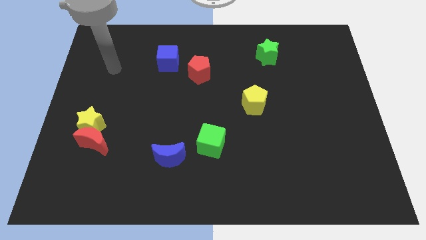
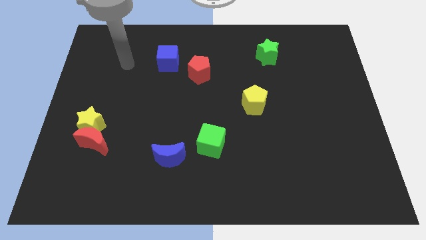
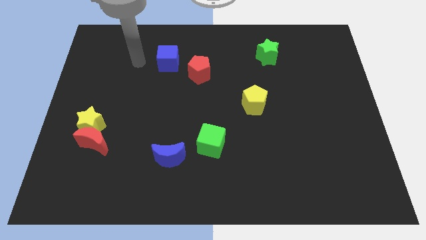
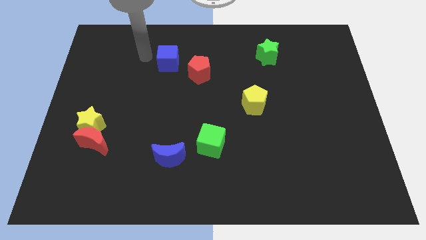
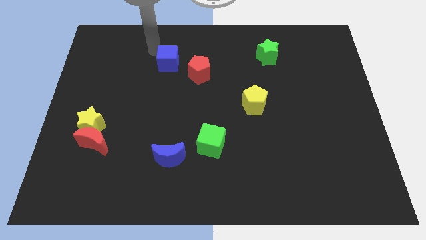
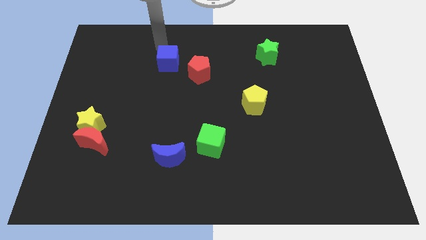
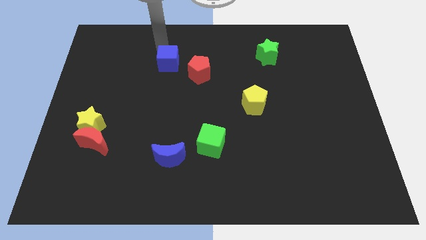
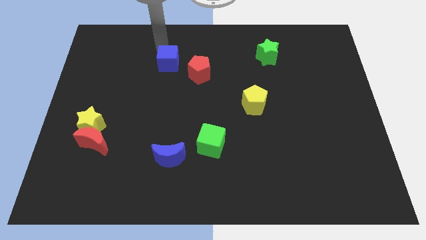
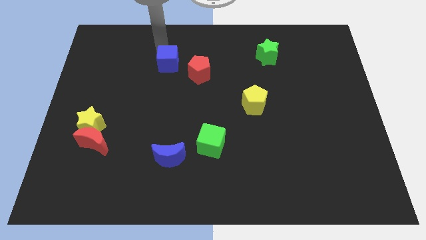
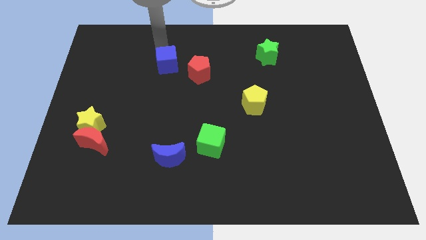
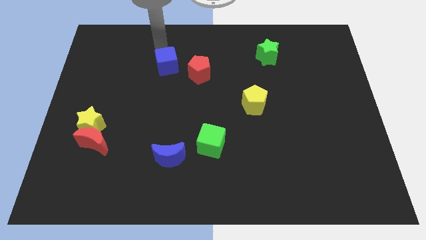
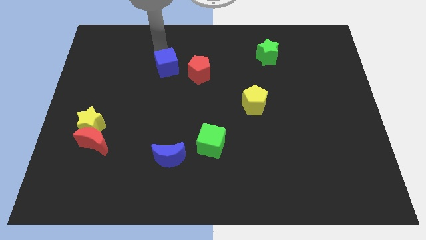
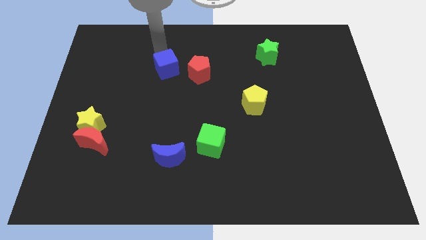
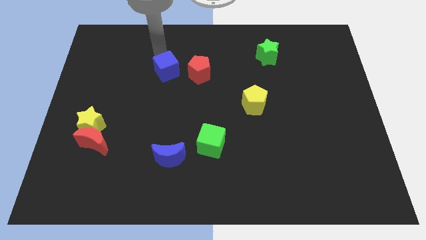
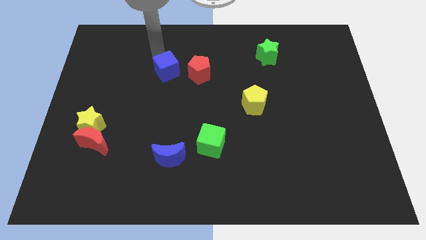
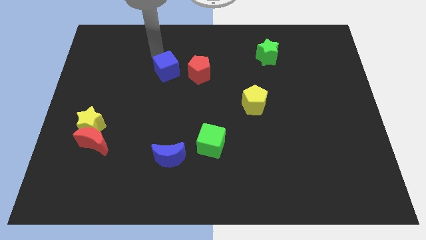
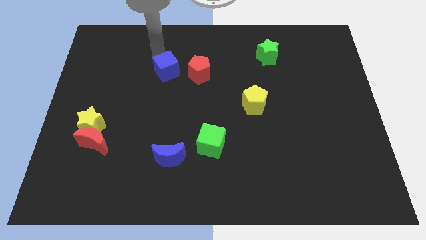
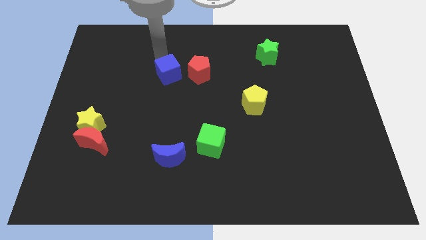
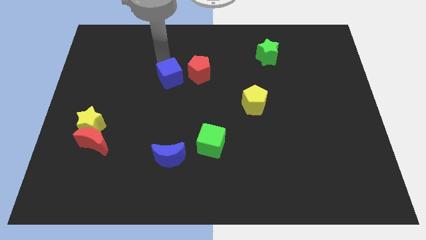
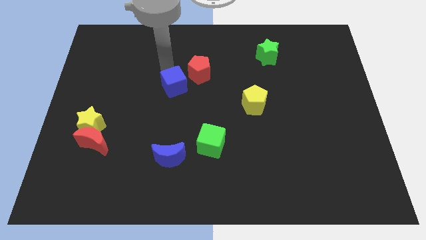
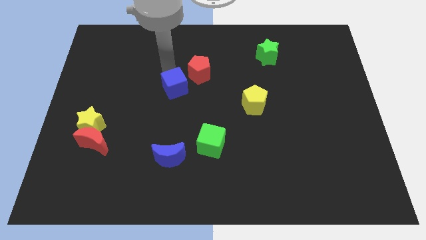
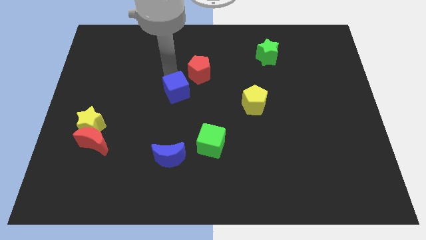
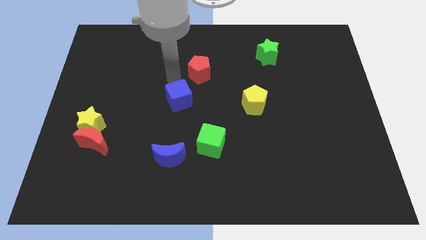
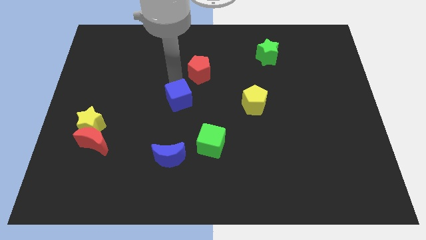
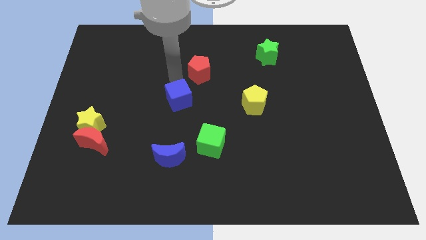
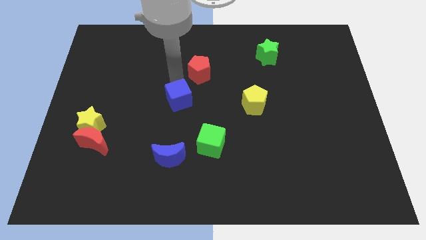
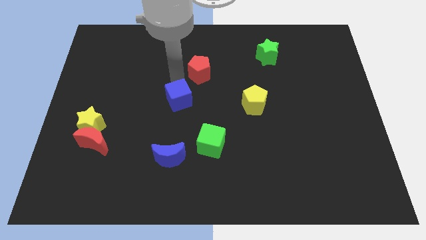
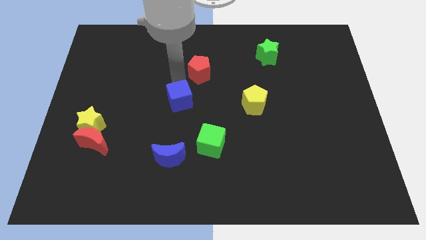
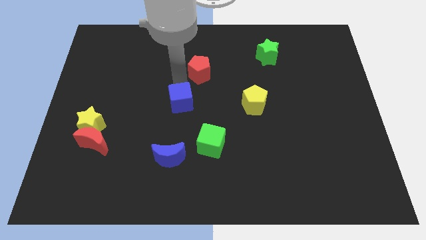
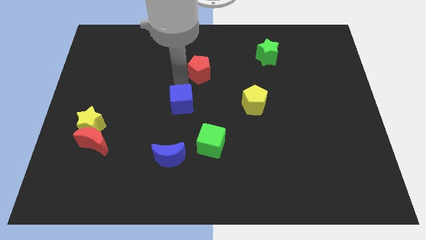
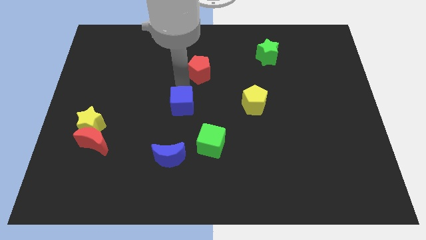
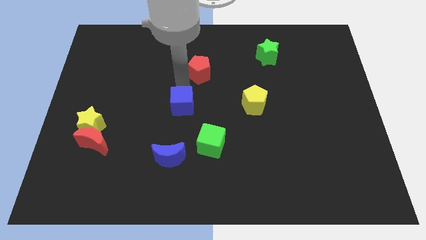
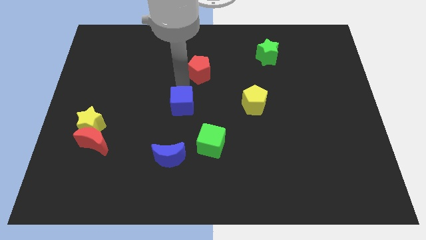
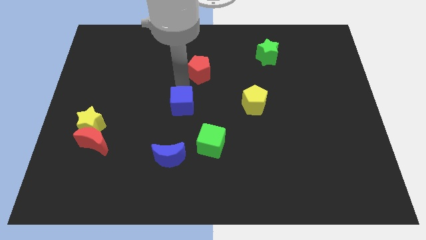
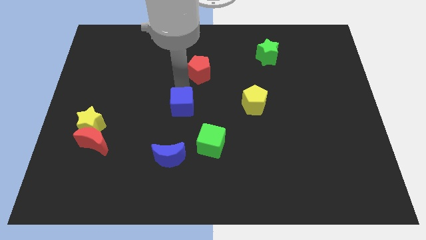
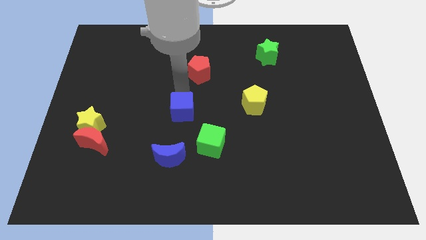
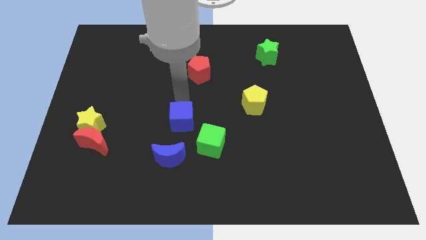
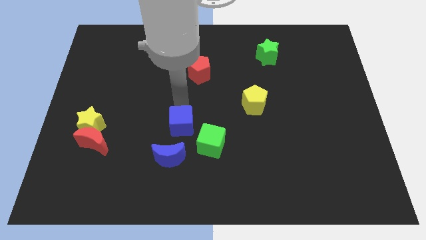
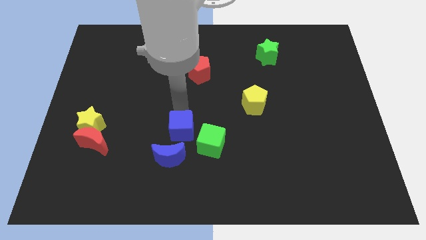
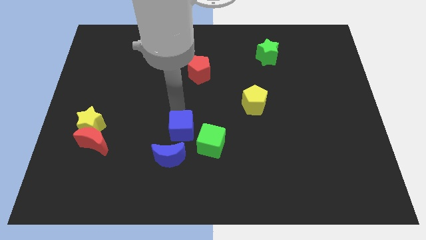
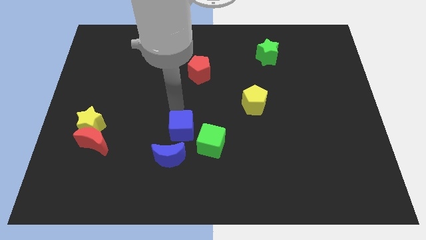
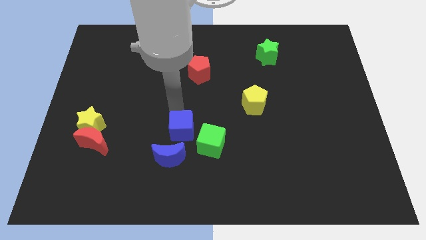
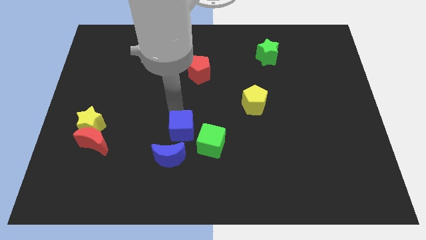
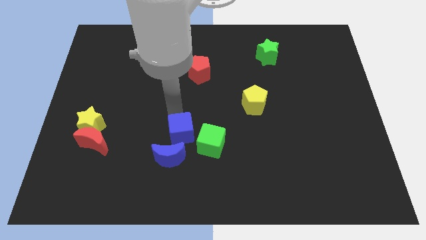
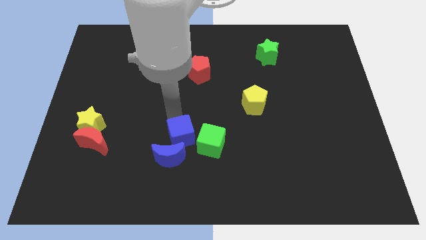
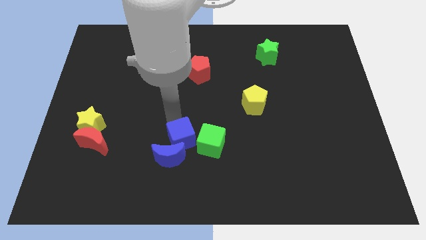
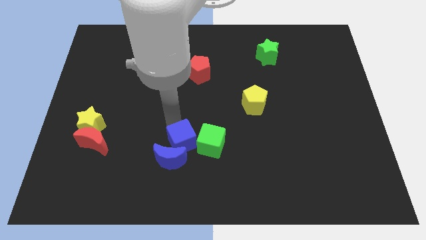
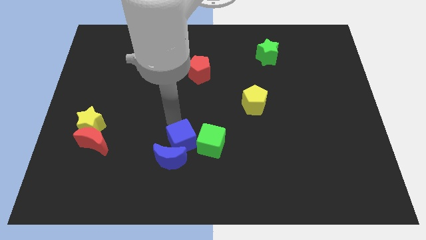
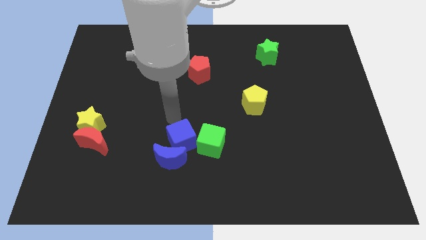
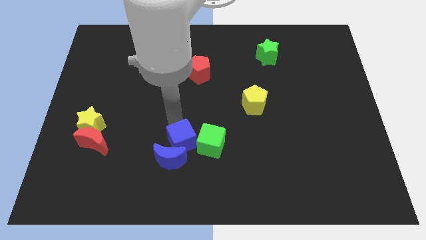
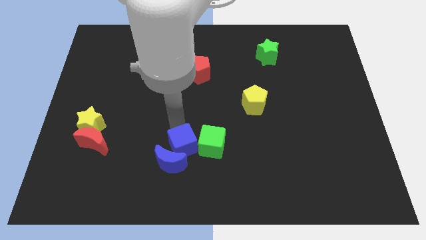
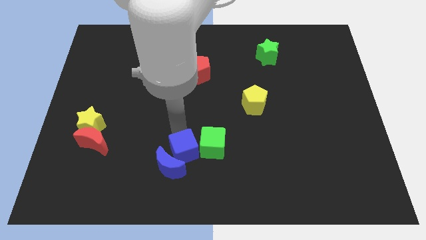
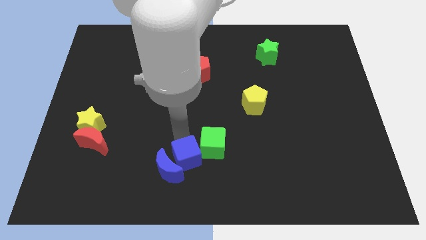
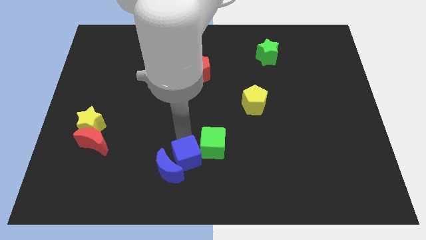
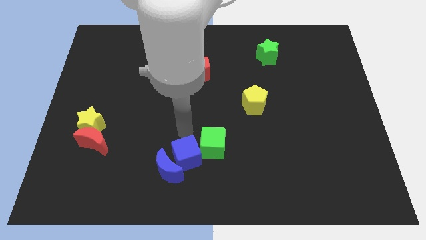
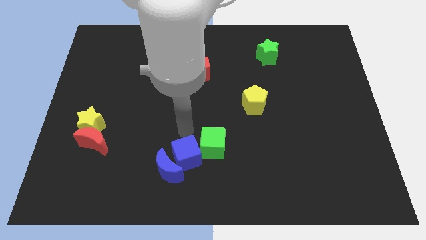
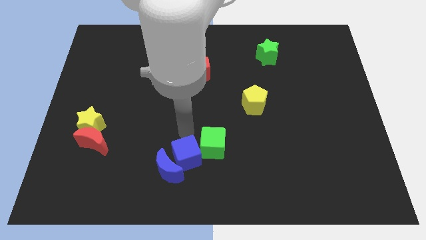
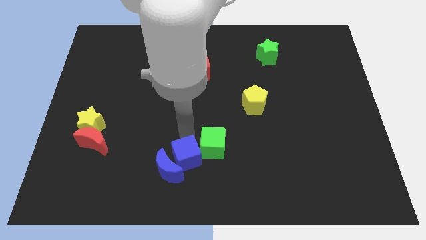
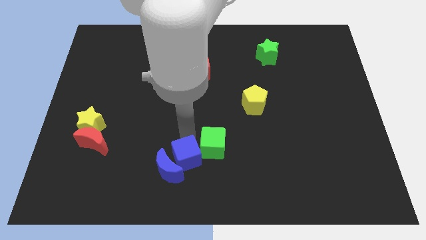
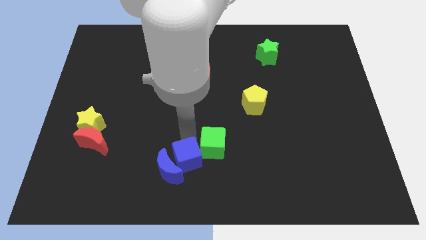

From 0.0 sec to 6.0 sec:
slide the blue cube to the bottom side
